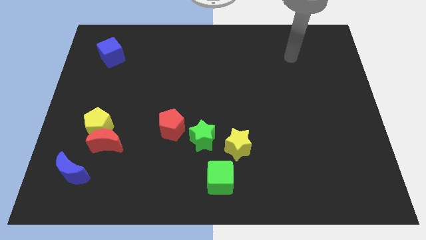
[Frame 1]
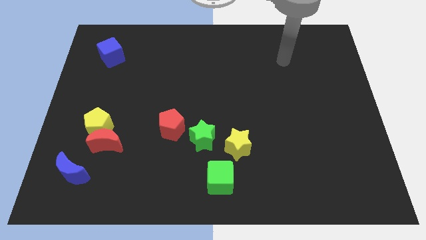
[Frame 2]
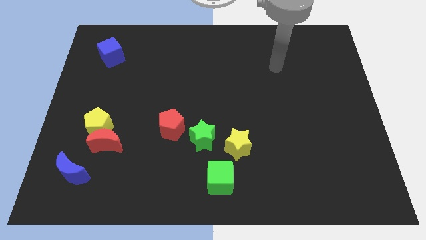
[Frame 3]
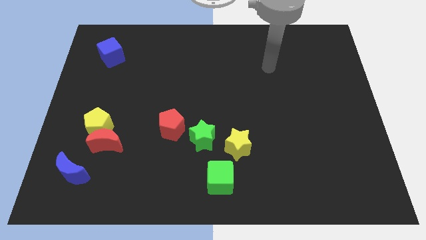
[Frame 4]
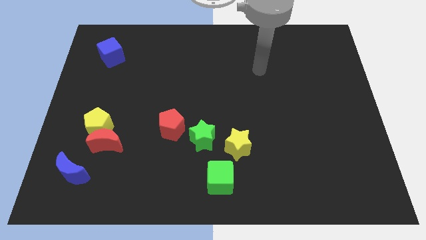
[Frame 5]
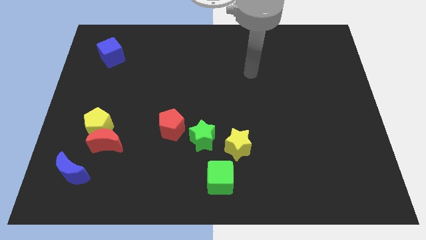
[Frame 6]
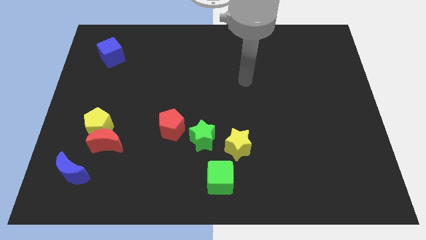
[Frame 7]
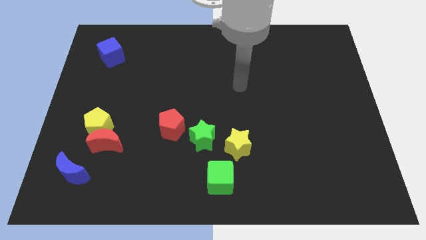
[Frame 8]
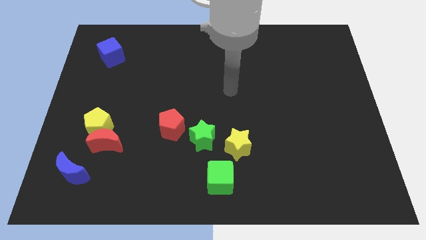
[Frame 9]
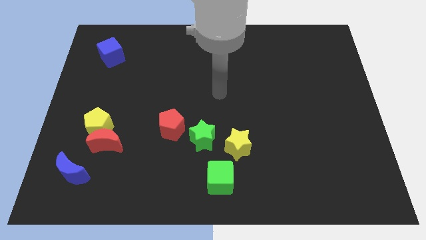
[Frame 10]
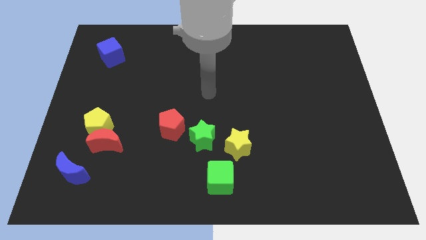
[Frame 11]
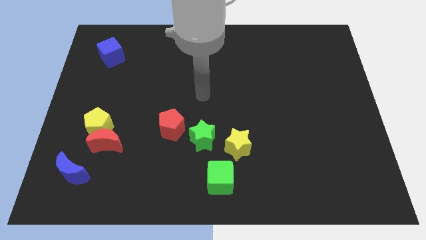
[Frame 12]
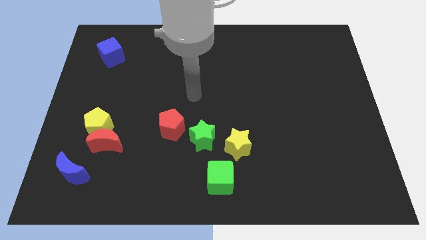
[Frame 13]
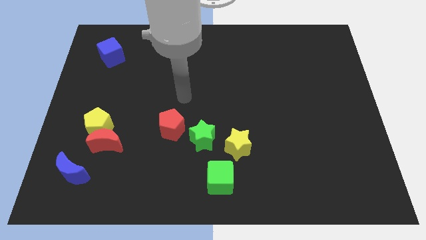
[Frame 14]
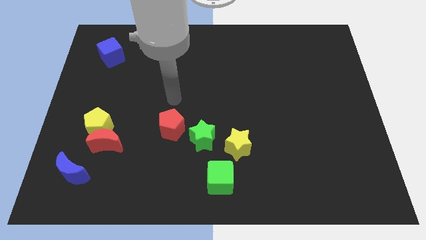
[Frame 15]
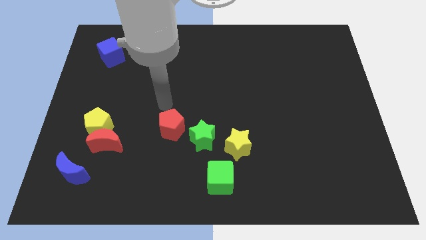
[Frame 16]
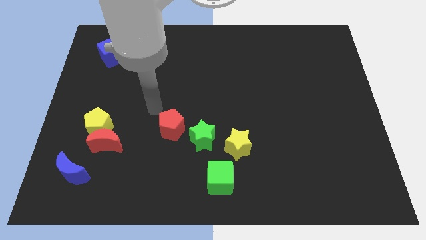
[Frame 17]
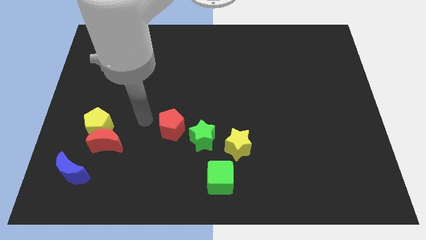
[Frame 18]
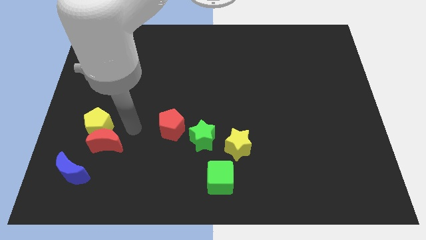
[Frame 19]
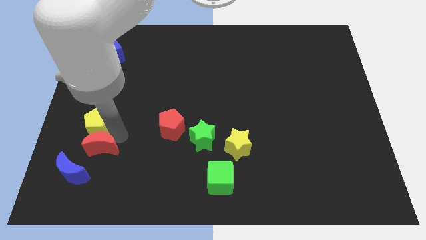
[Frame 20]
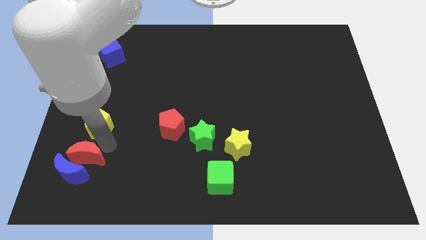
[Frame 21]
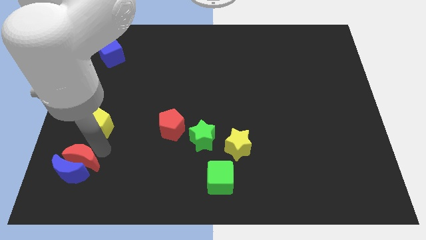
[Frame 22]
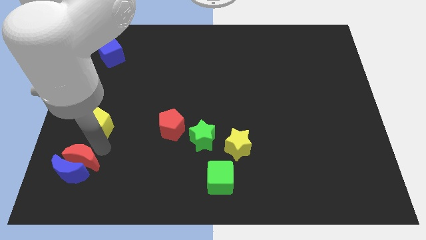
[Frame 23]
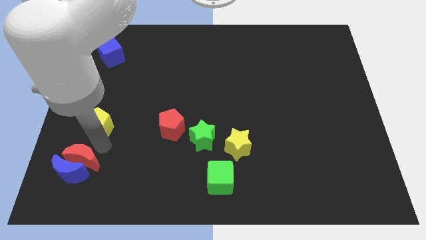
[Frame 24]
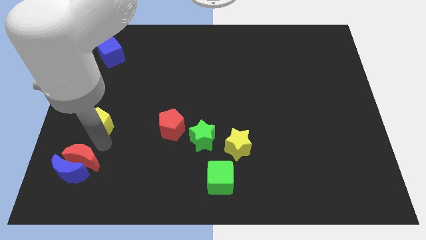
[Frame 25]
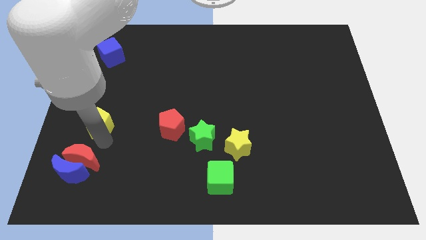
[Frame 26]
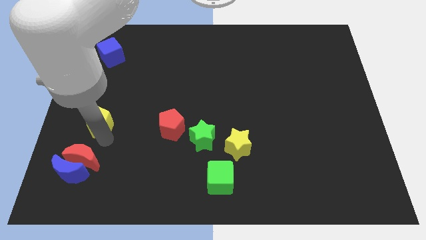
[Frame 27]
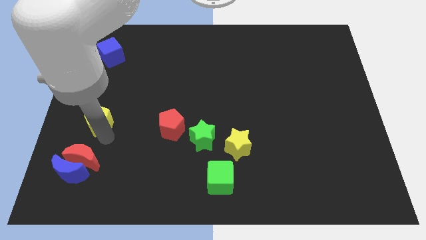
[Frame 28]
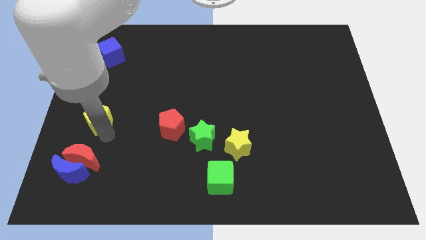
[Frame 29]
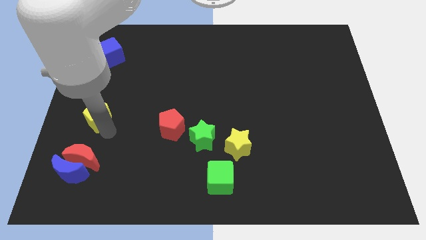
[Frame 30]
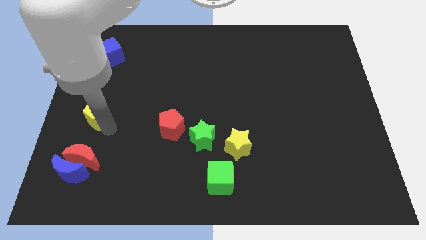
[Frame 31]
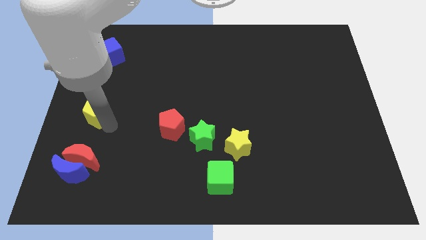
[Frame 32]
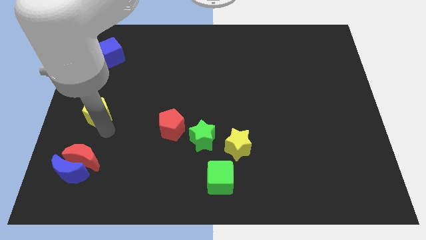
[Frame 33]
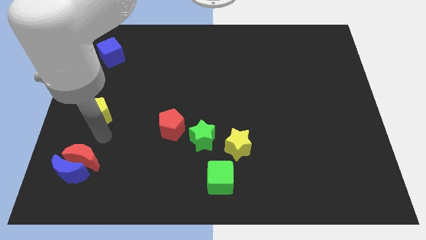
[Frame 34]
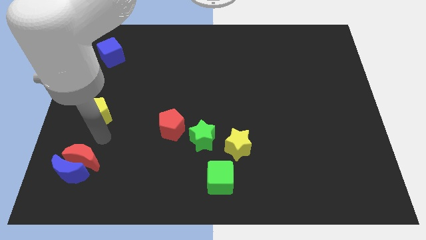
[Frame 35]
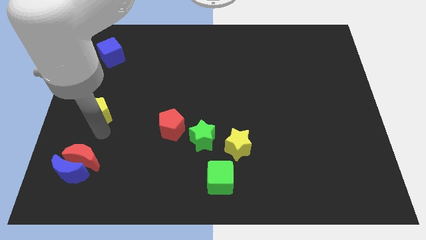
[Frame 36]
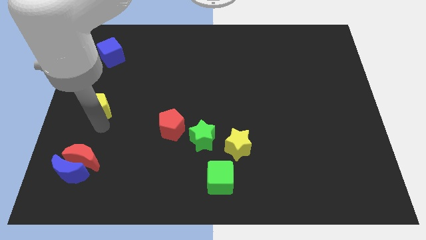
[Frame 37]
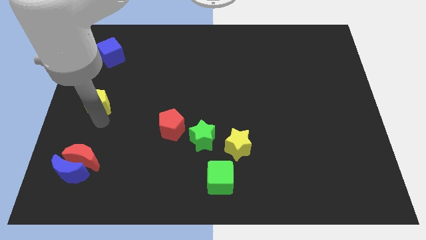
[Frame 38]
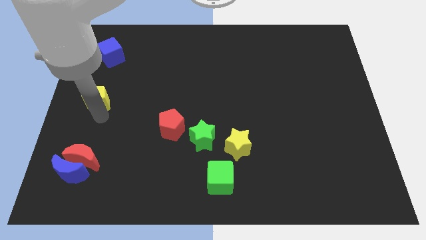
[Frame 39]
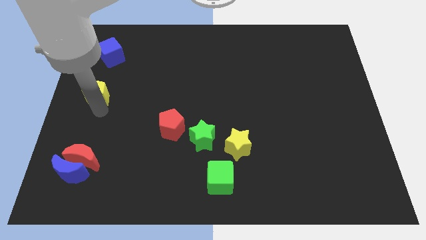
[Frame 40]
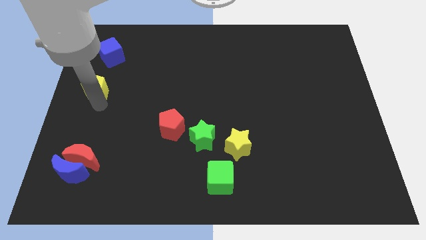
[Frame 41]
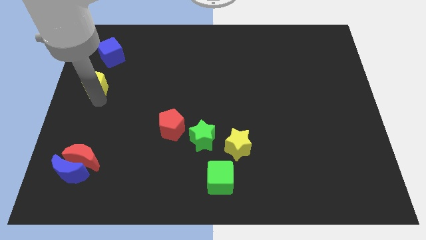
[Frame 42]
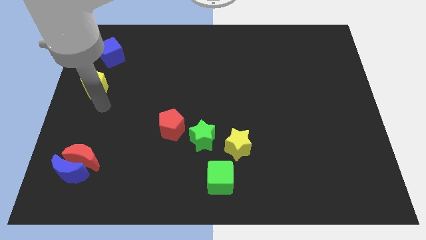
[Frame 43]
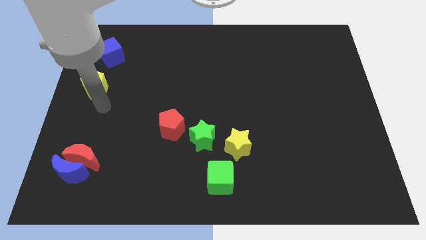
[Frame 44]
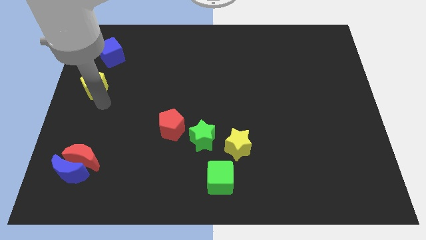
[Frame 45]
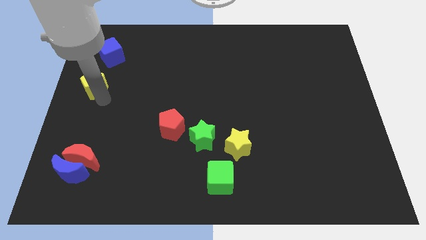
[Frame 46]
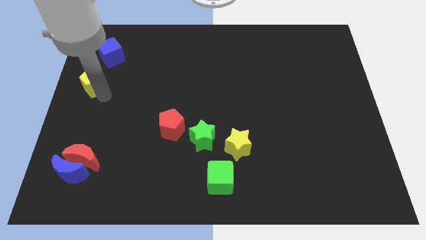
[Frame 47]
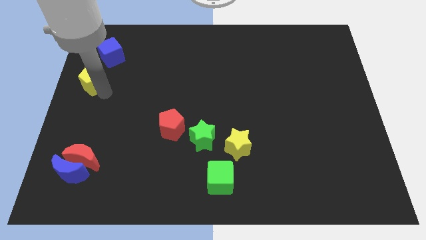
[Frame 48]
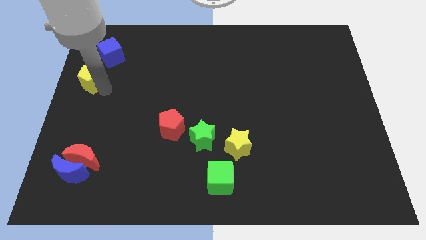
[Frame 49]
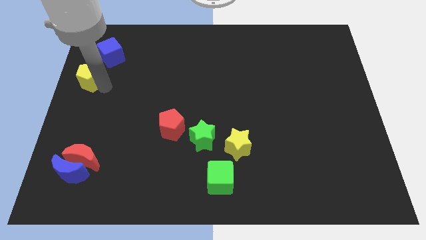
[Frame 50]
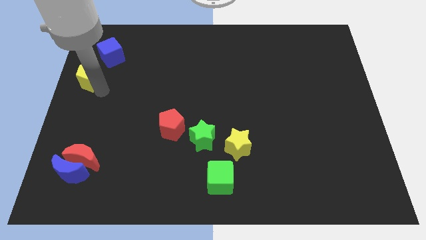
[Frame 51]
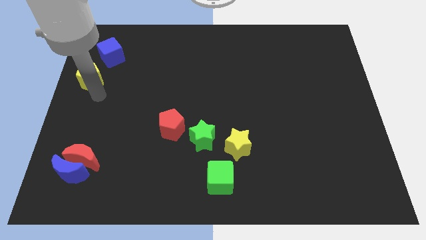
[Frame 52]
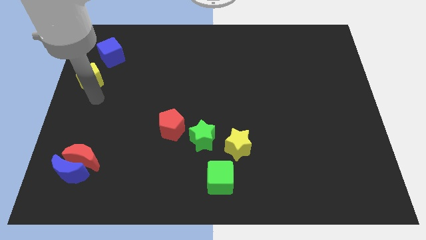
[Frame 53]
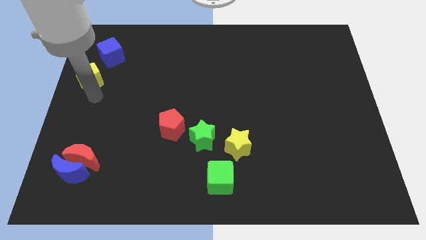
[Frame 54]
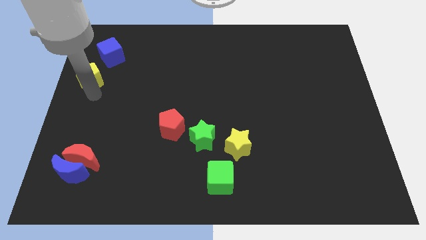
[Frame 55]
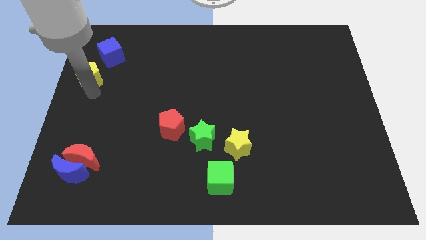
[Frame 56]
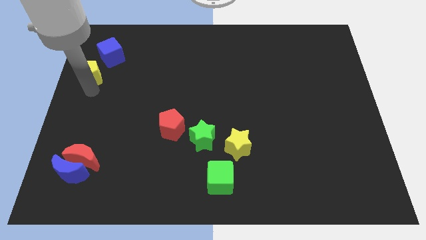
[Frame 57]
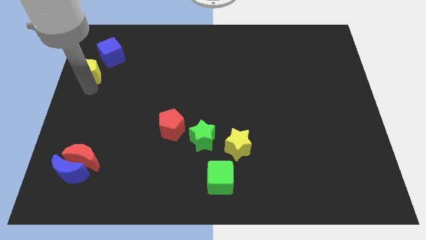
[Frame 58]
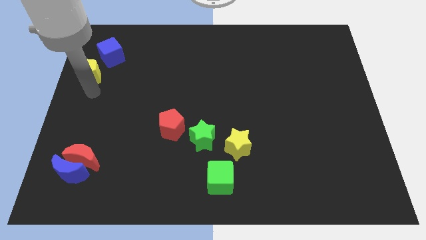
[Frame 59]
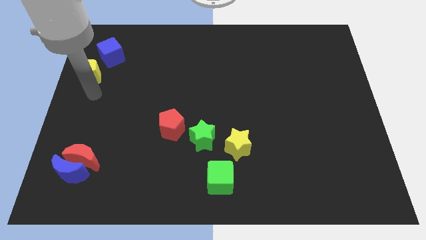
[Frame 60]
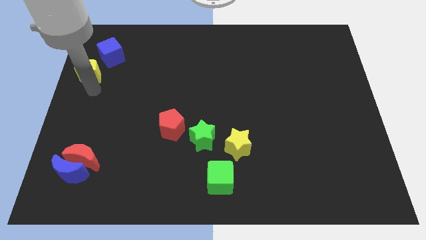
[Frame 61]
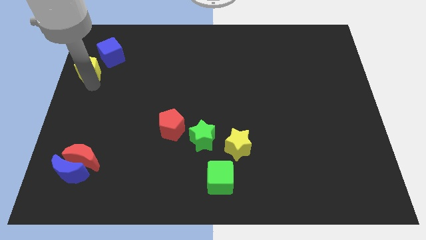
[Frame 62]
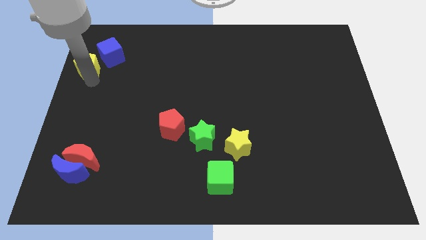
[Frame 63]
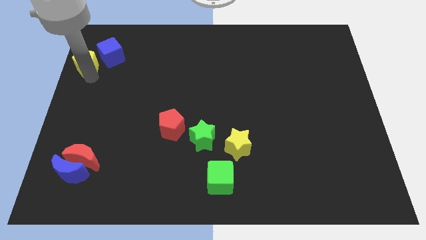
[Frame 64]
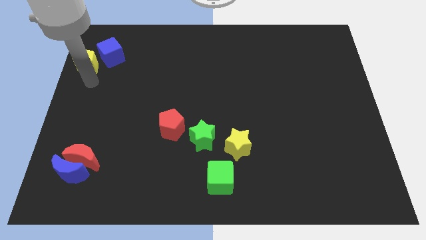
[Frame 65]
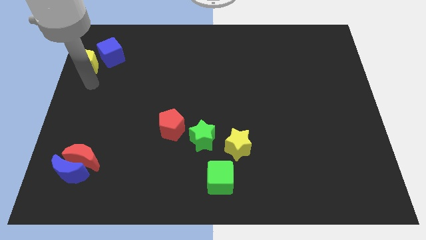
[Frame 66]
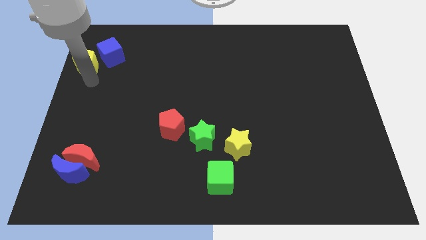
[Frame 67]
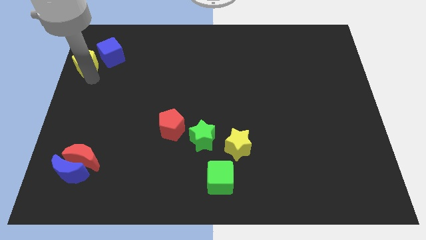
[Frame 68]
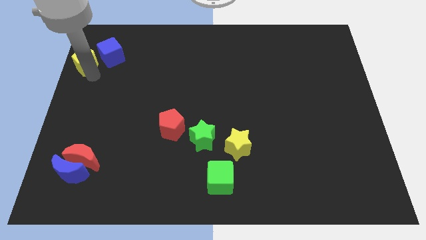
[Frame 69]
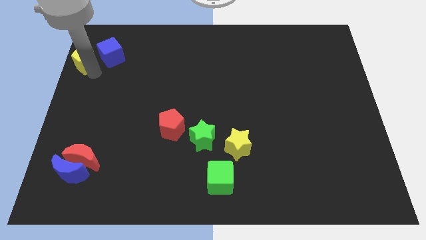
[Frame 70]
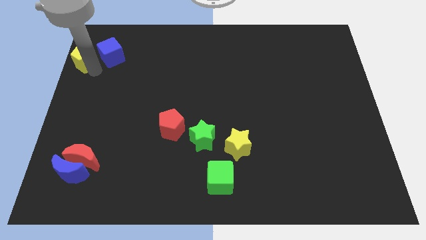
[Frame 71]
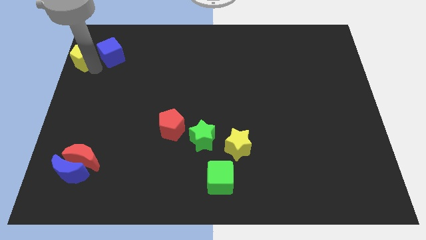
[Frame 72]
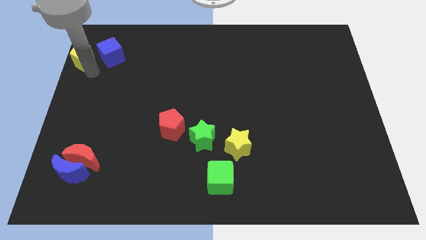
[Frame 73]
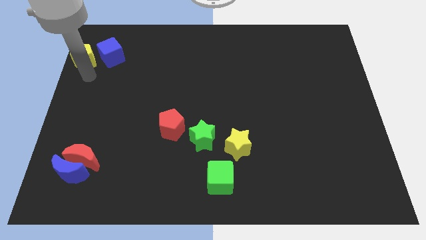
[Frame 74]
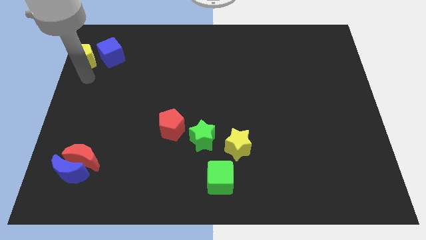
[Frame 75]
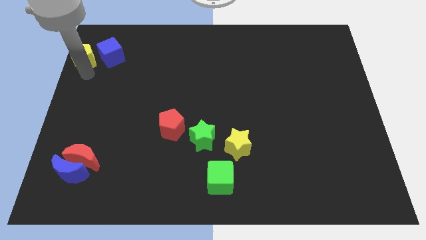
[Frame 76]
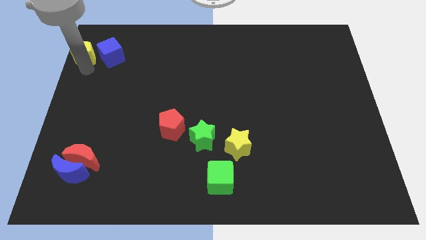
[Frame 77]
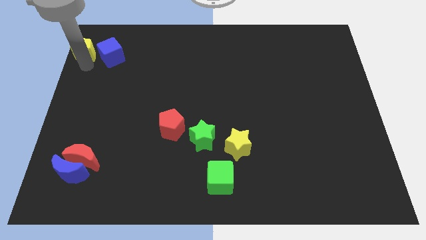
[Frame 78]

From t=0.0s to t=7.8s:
move the yellow pentagon to the upper left corner
